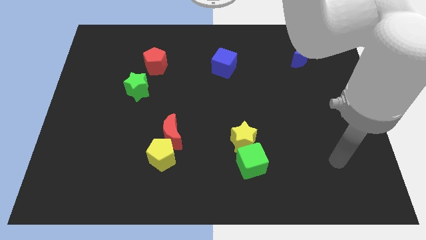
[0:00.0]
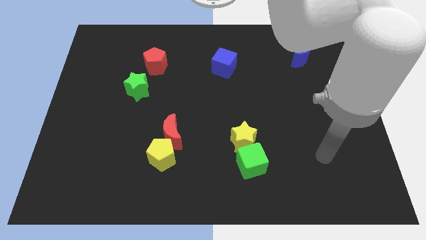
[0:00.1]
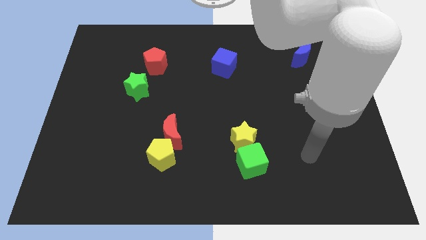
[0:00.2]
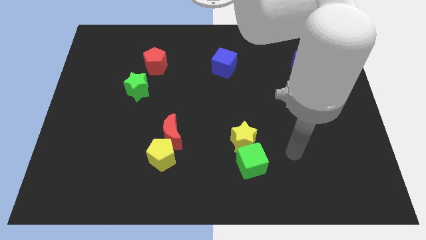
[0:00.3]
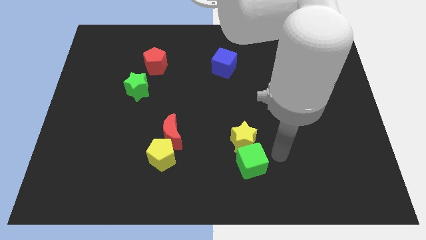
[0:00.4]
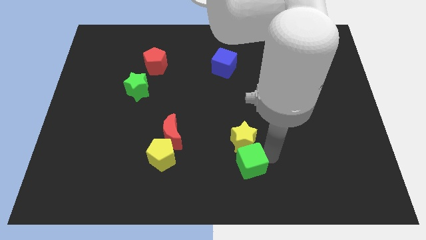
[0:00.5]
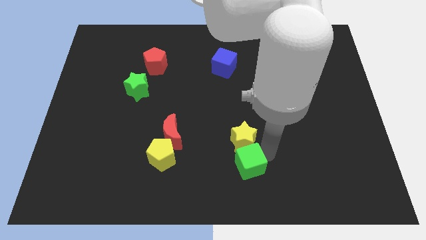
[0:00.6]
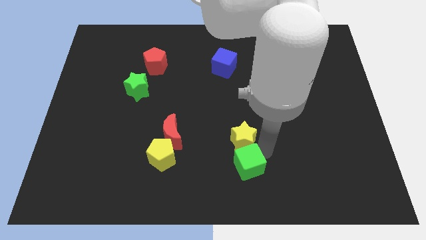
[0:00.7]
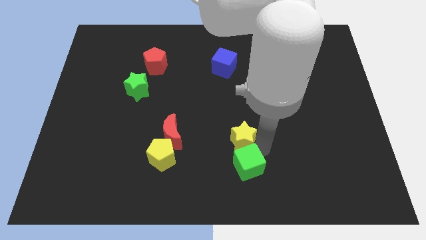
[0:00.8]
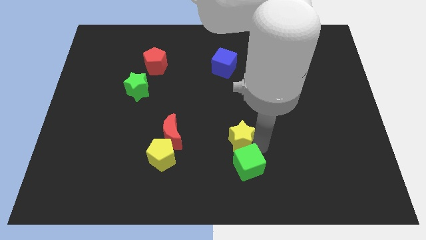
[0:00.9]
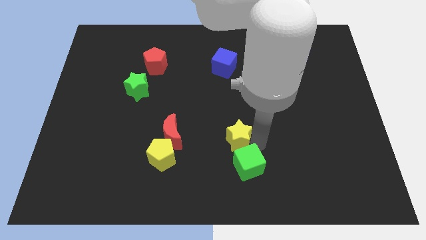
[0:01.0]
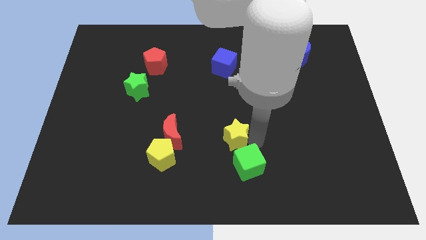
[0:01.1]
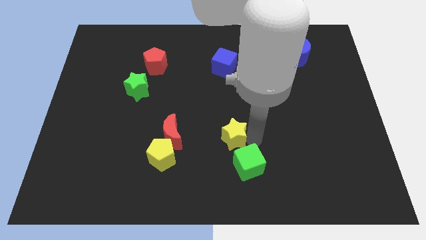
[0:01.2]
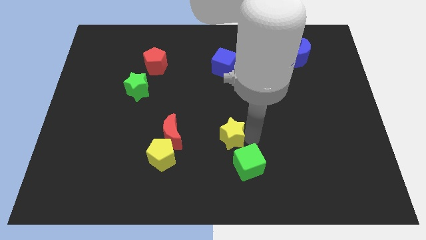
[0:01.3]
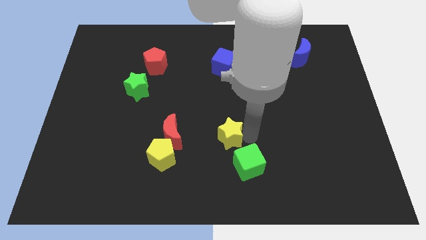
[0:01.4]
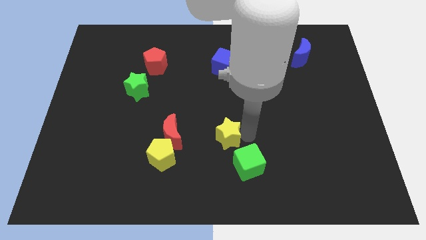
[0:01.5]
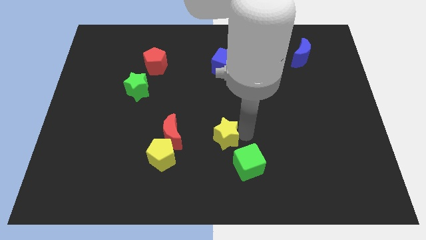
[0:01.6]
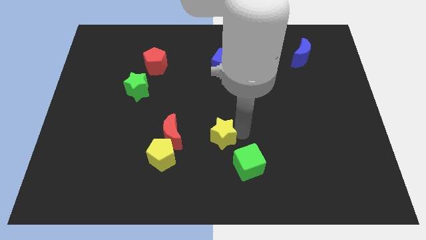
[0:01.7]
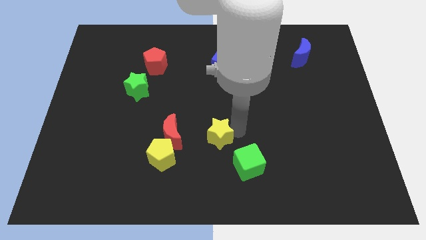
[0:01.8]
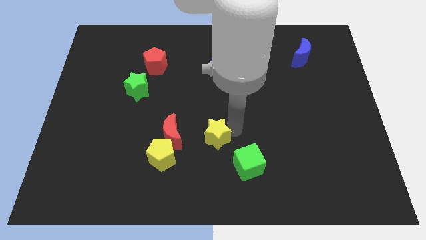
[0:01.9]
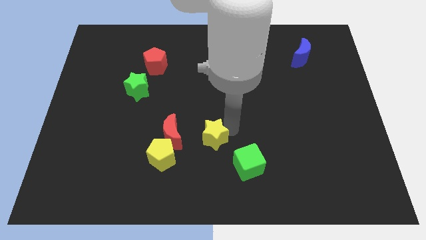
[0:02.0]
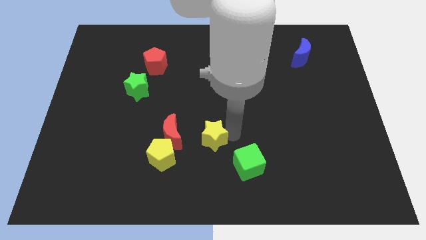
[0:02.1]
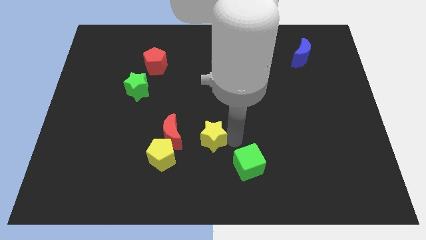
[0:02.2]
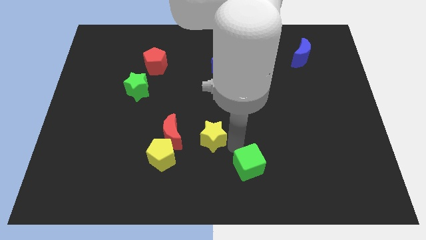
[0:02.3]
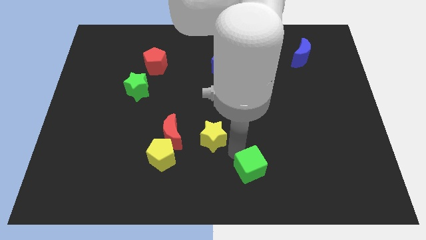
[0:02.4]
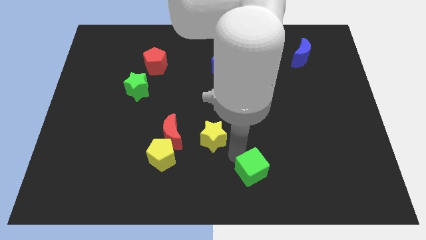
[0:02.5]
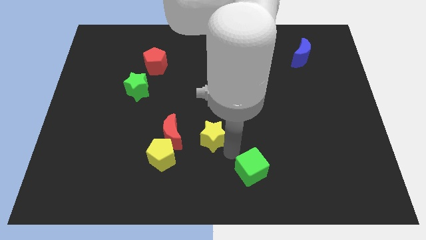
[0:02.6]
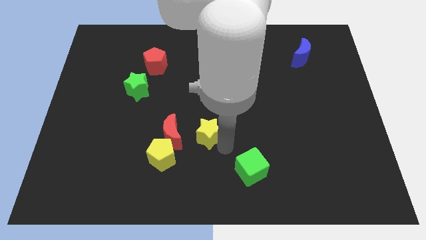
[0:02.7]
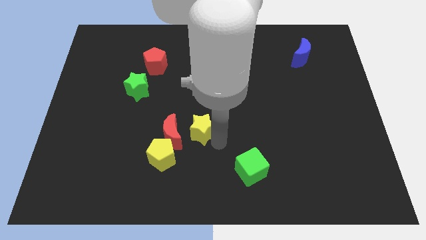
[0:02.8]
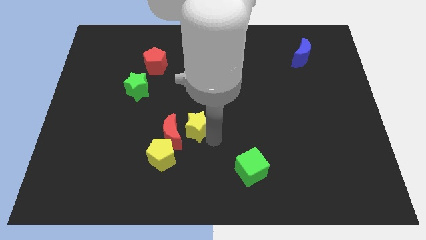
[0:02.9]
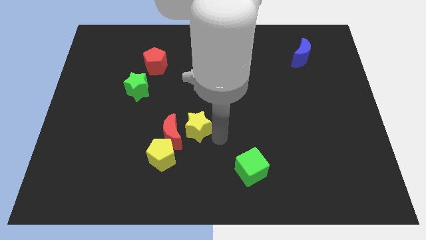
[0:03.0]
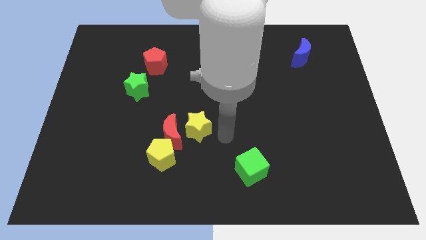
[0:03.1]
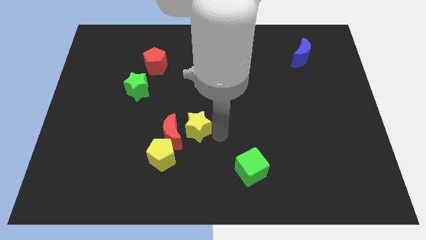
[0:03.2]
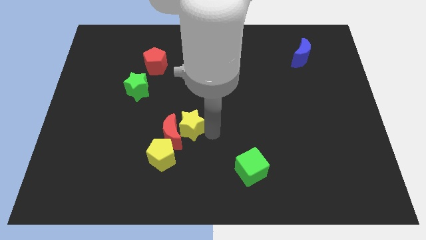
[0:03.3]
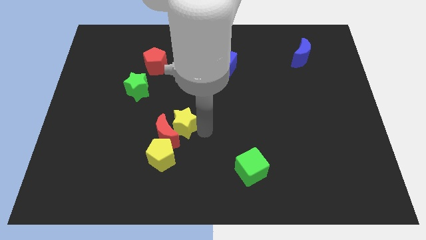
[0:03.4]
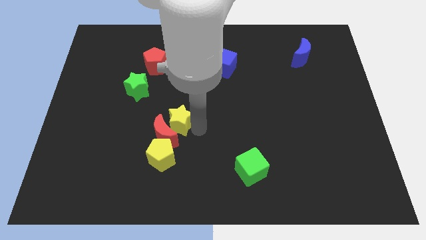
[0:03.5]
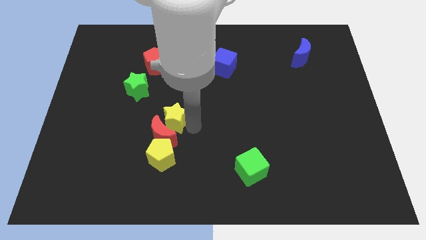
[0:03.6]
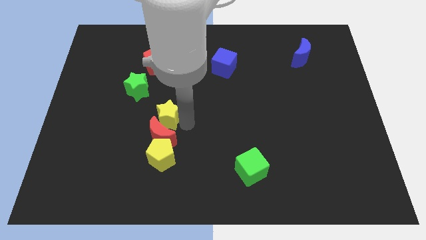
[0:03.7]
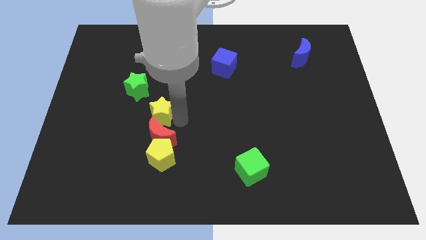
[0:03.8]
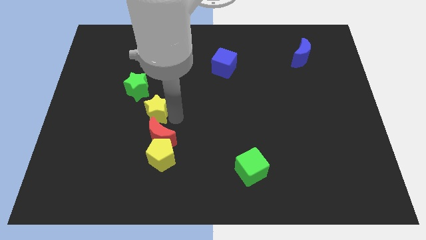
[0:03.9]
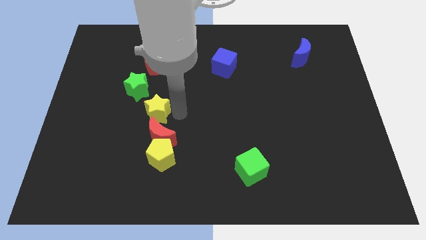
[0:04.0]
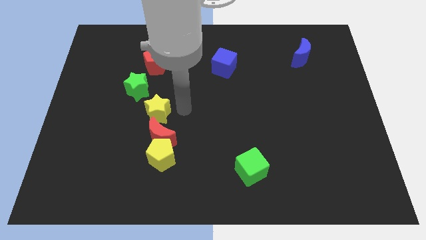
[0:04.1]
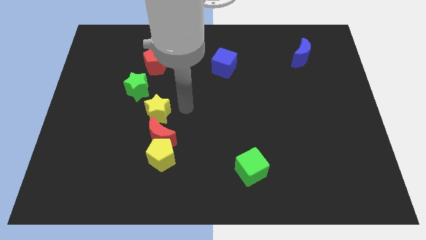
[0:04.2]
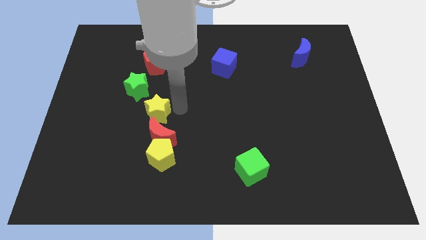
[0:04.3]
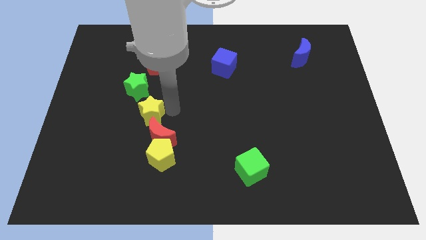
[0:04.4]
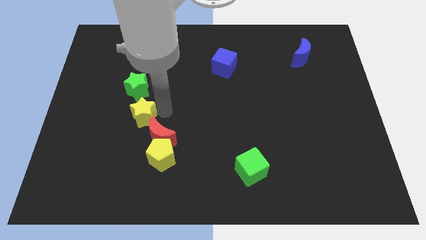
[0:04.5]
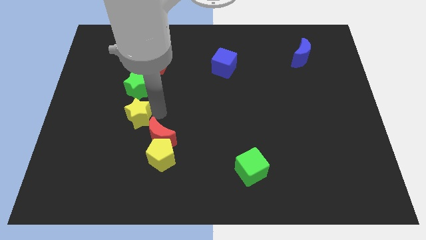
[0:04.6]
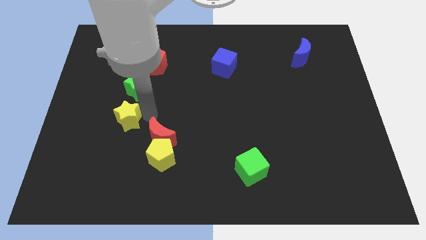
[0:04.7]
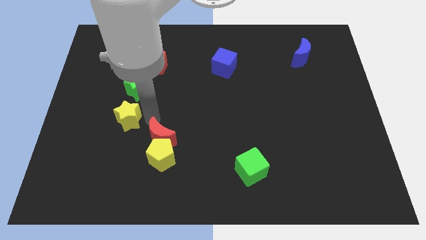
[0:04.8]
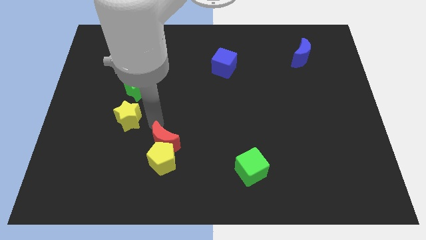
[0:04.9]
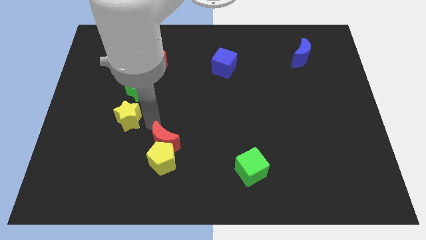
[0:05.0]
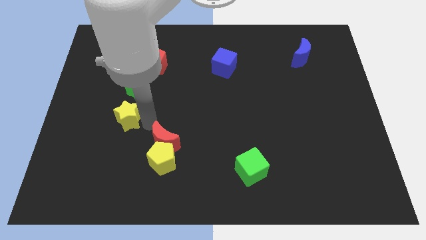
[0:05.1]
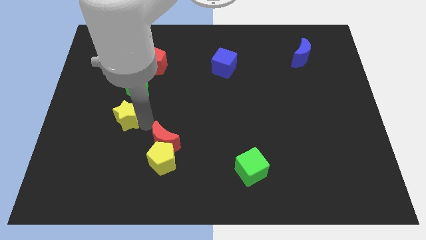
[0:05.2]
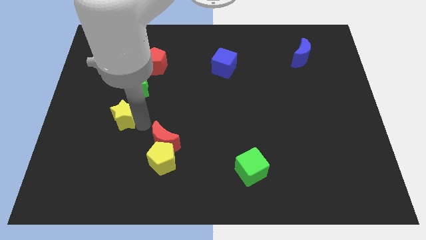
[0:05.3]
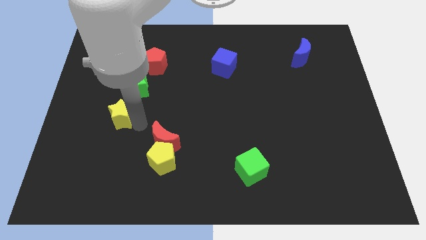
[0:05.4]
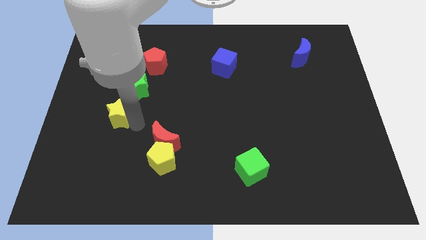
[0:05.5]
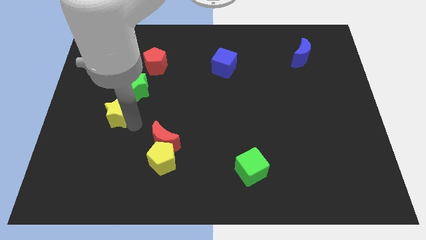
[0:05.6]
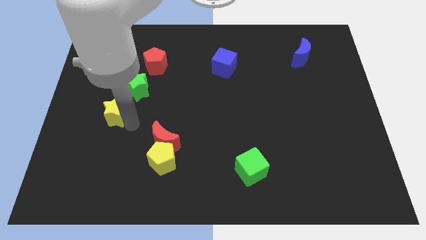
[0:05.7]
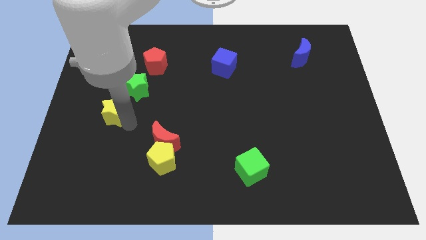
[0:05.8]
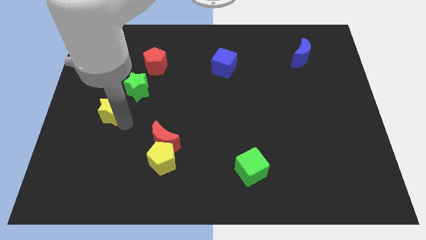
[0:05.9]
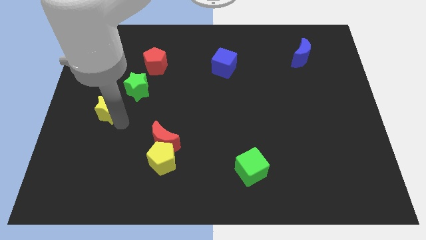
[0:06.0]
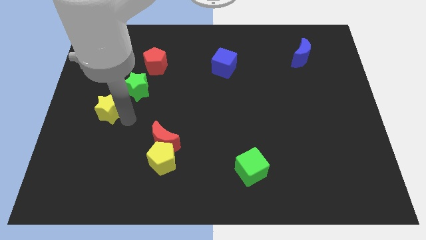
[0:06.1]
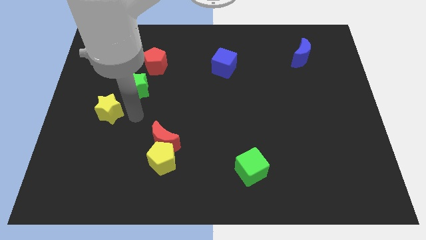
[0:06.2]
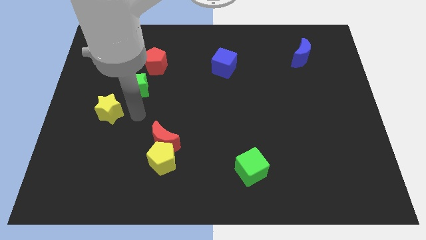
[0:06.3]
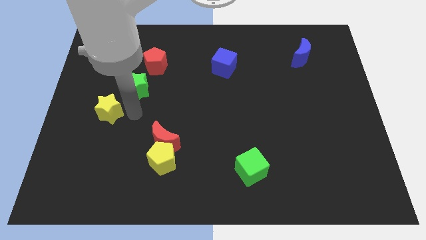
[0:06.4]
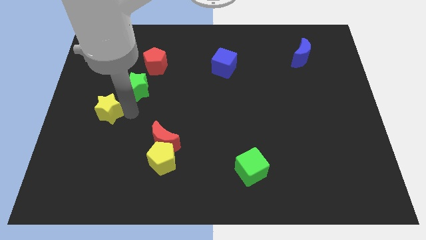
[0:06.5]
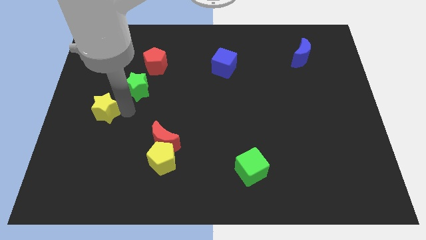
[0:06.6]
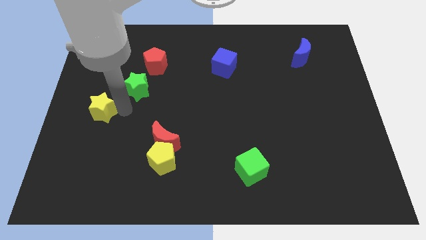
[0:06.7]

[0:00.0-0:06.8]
slide the yellow star to the left side of the board

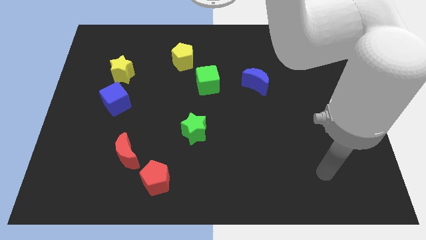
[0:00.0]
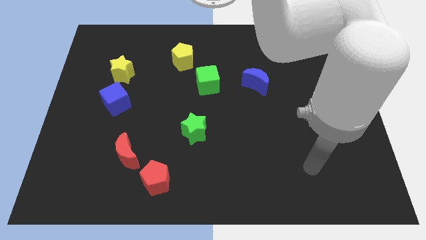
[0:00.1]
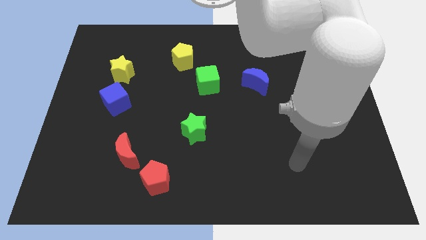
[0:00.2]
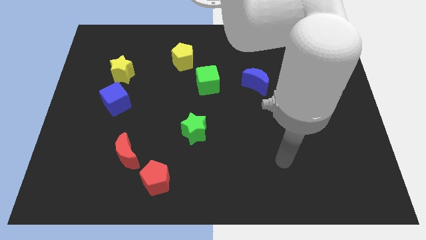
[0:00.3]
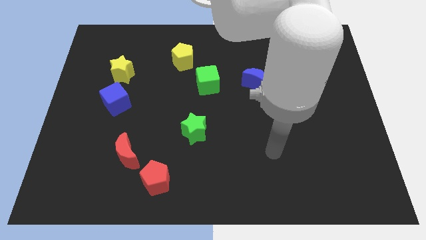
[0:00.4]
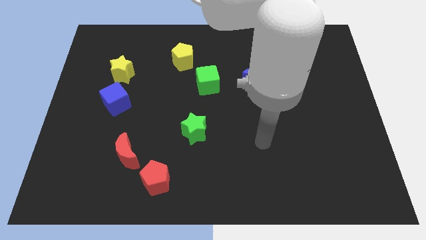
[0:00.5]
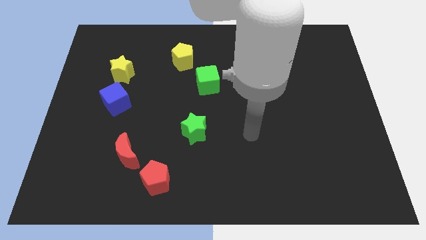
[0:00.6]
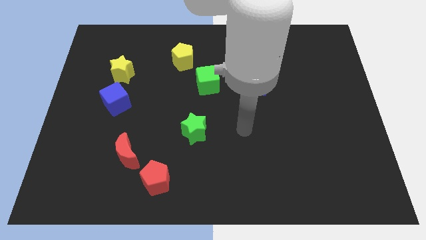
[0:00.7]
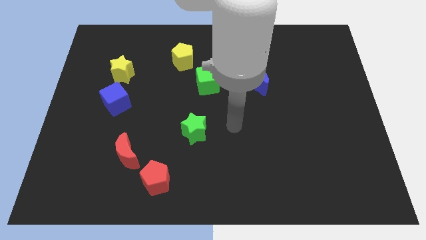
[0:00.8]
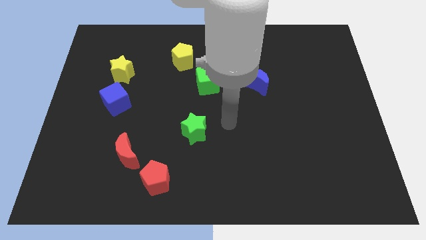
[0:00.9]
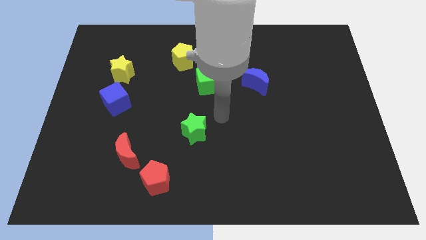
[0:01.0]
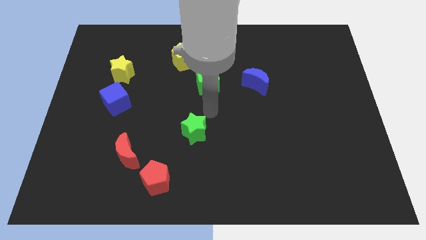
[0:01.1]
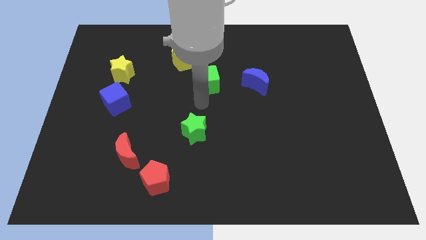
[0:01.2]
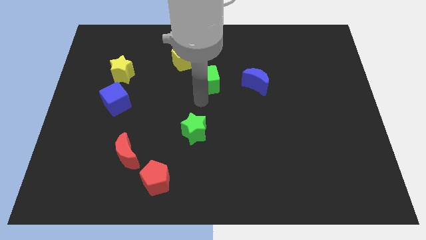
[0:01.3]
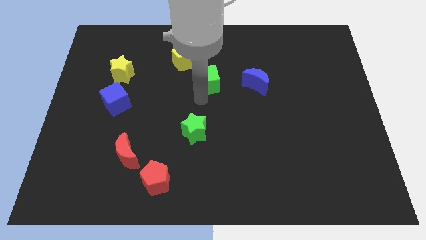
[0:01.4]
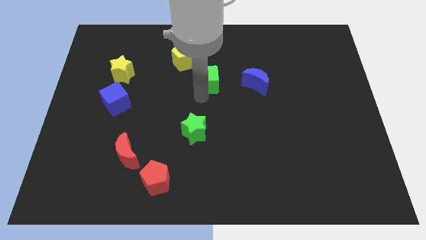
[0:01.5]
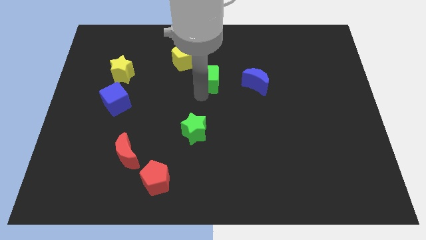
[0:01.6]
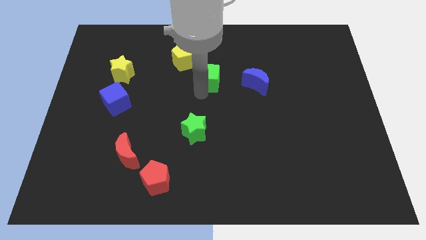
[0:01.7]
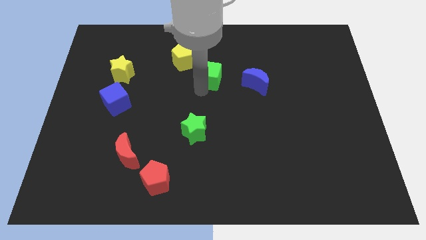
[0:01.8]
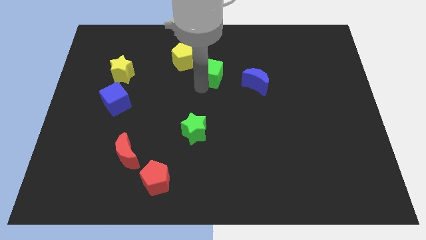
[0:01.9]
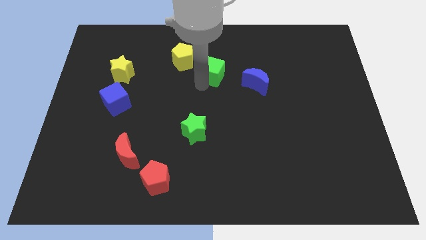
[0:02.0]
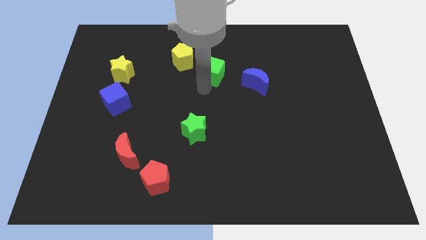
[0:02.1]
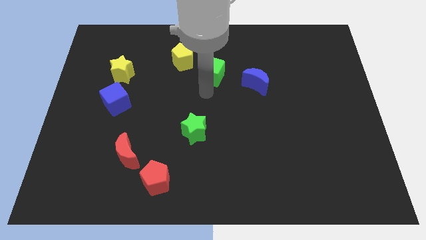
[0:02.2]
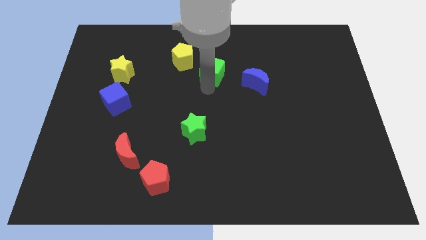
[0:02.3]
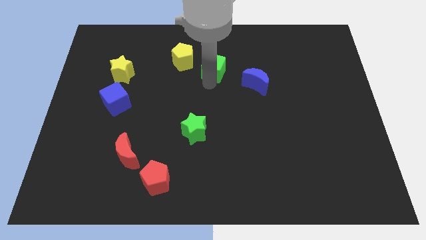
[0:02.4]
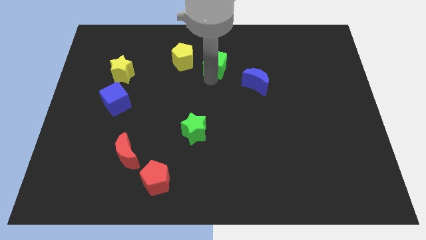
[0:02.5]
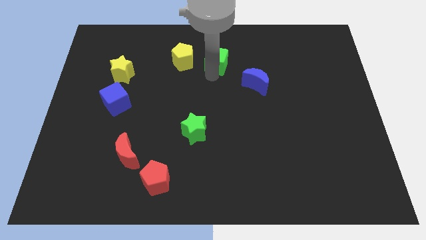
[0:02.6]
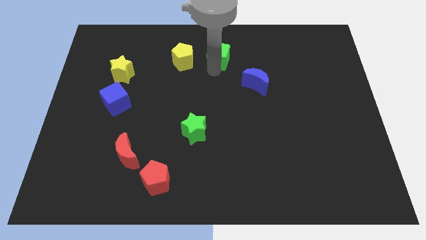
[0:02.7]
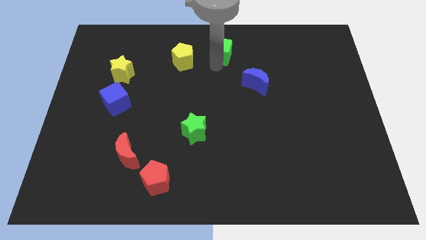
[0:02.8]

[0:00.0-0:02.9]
put the green cube to the top
